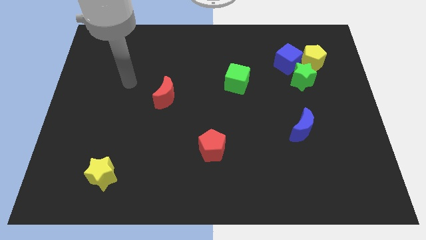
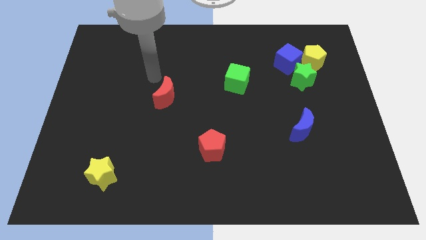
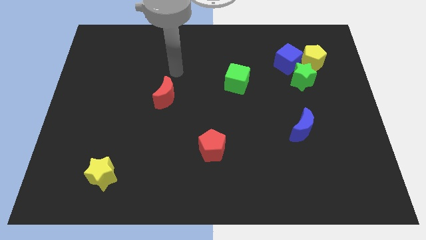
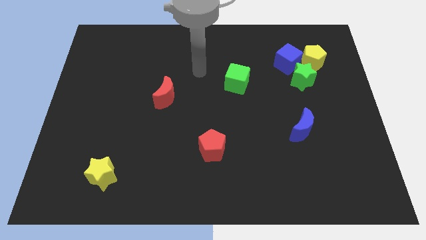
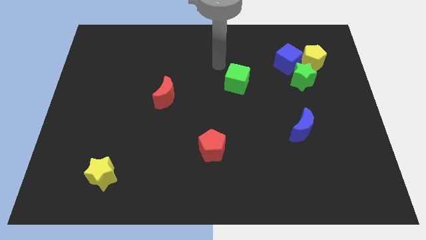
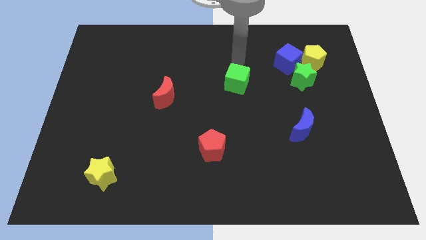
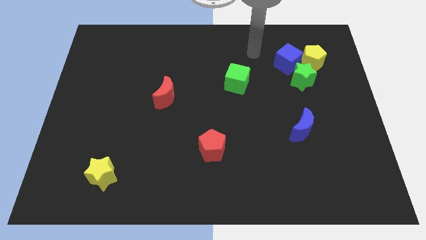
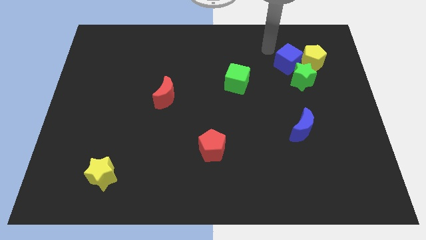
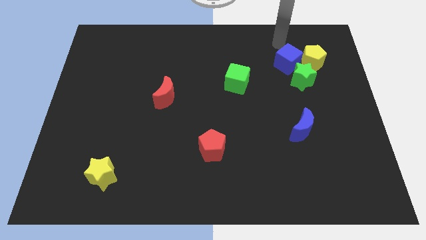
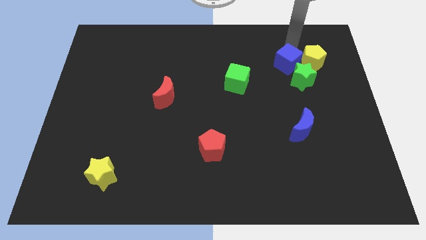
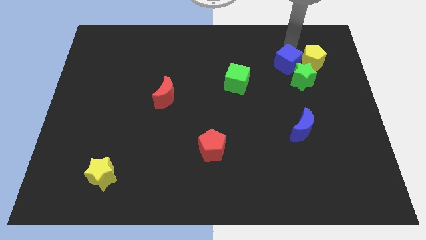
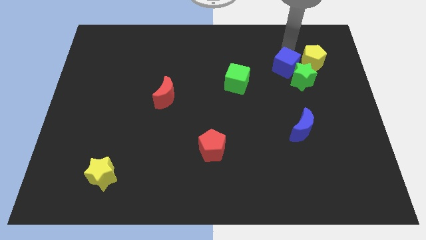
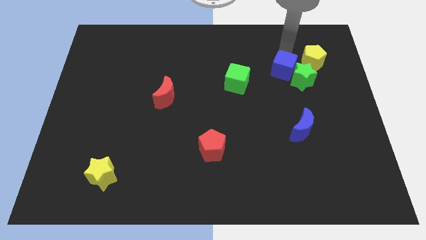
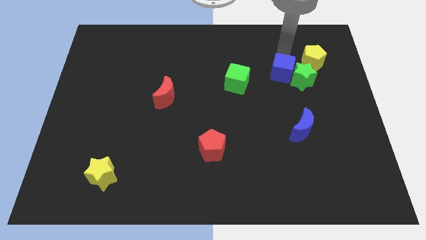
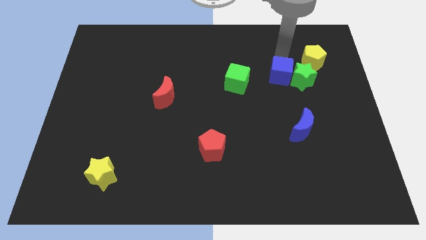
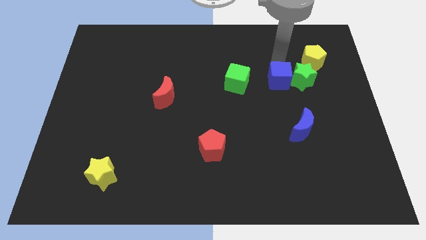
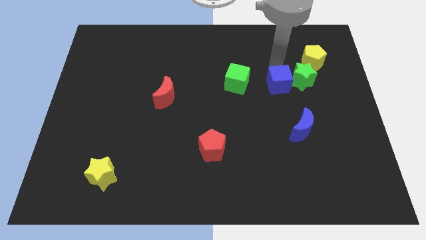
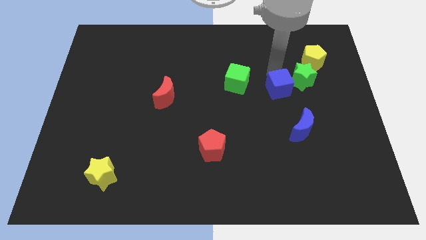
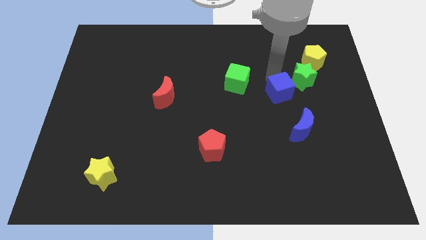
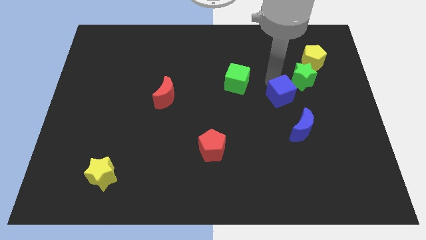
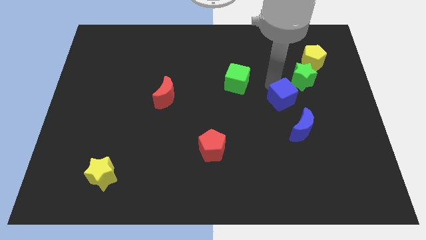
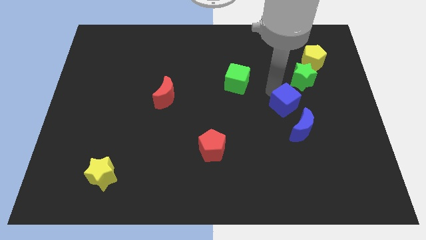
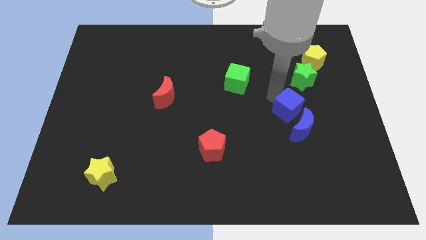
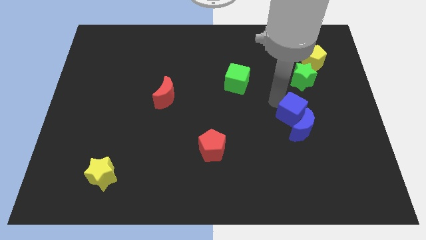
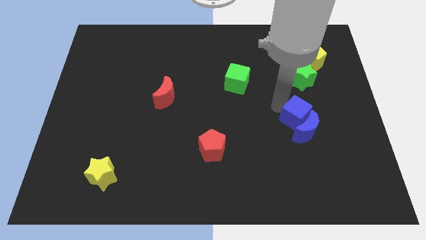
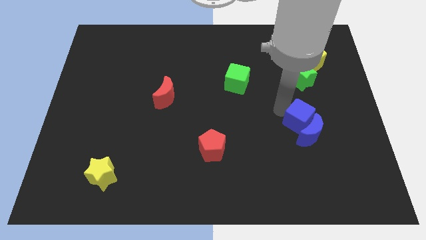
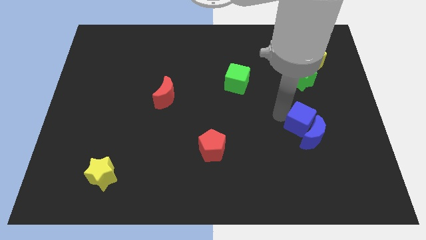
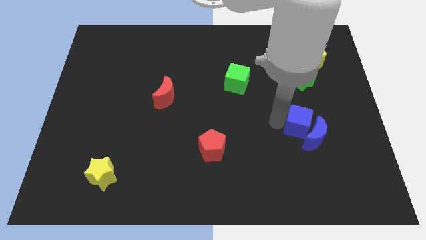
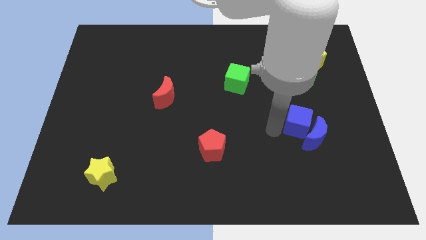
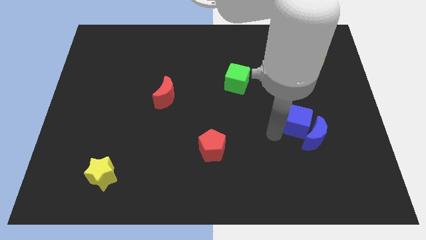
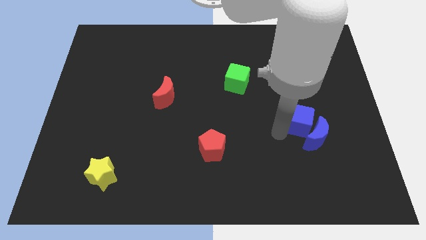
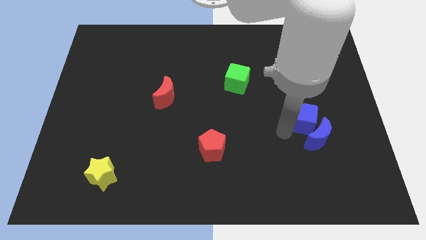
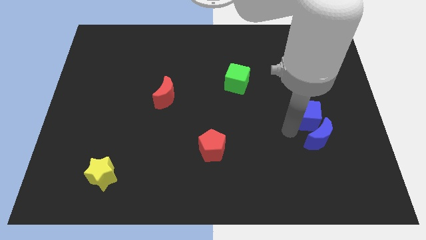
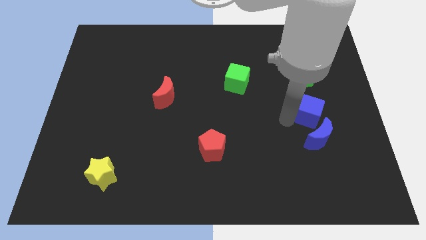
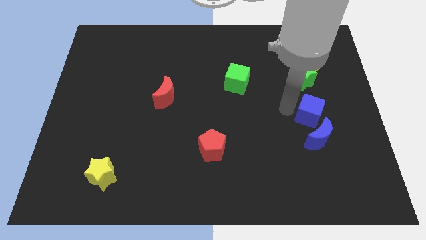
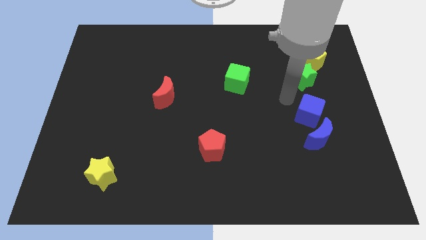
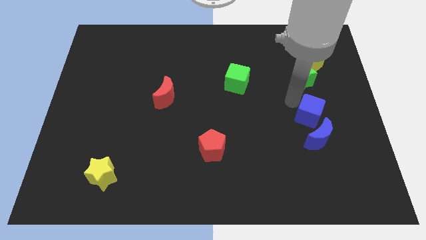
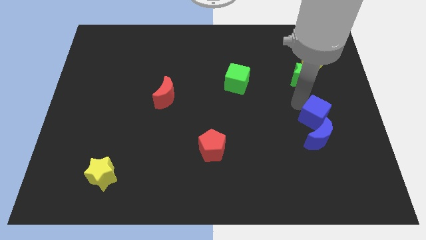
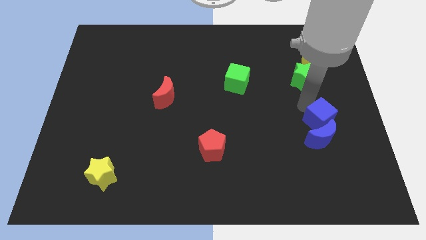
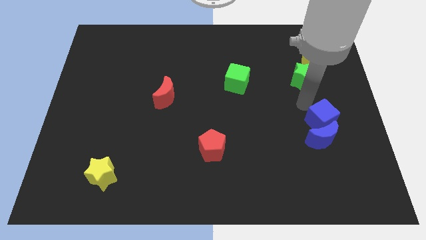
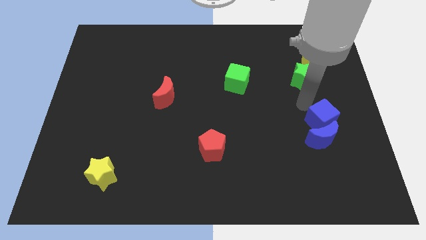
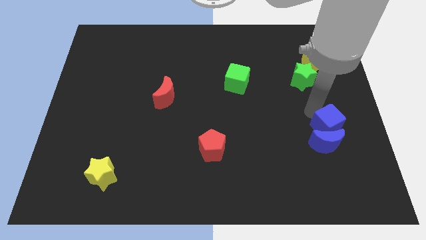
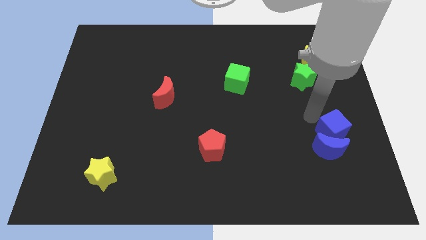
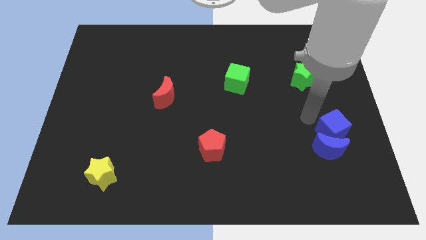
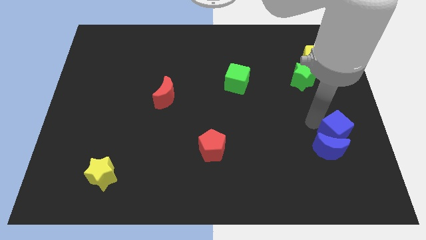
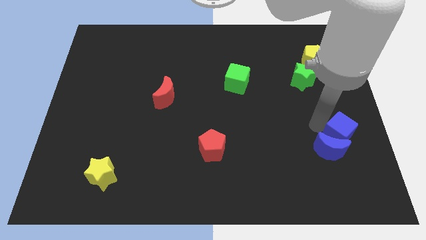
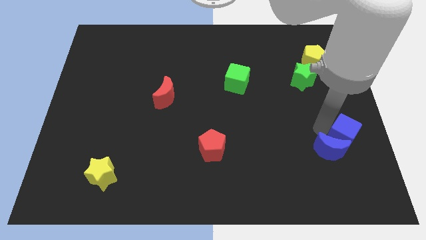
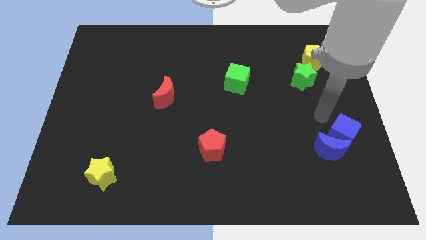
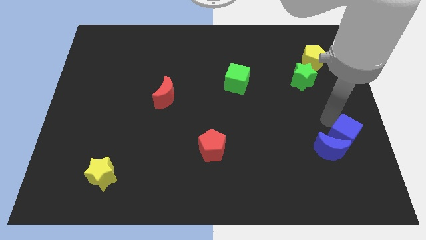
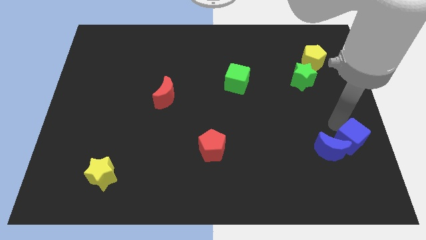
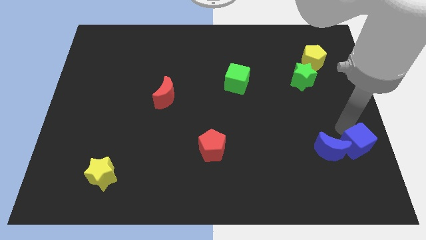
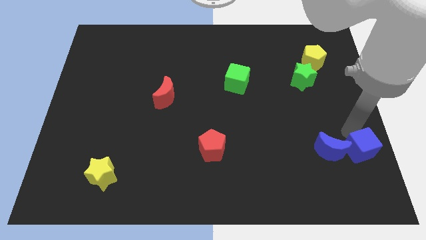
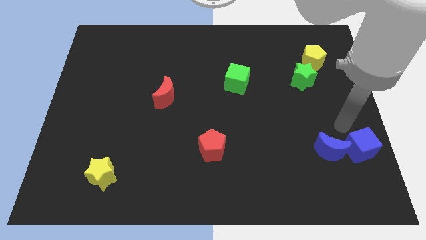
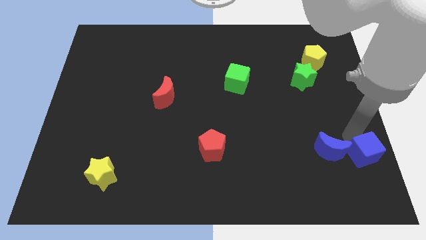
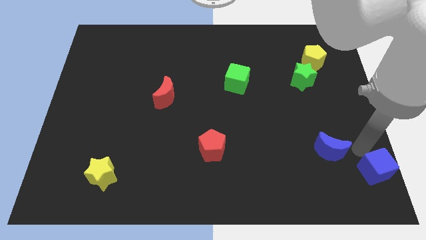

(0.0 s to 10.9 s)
move the blue cube to the bottom right
